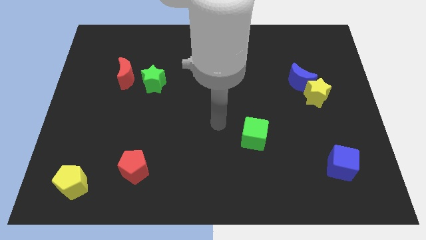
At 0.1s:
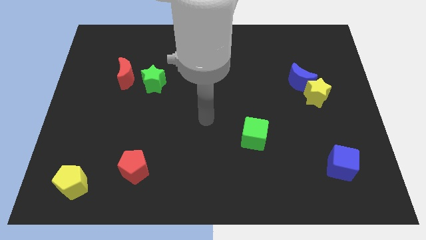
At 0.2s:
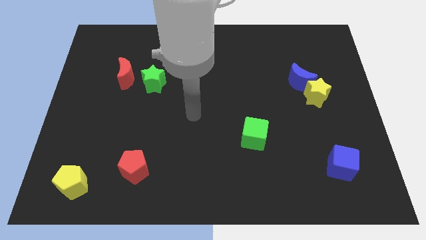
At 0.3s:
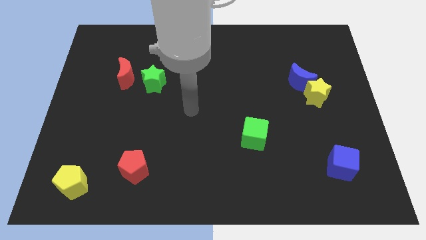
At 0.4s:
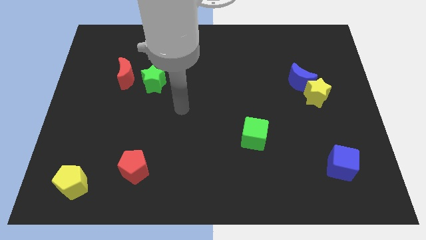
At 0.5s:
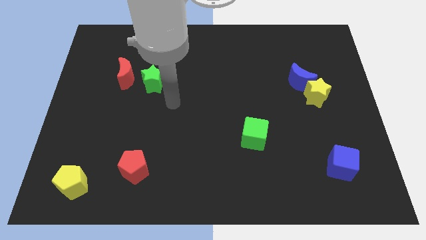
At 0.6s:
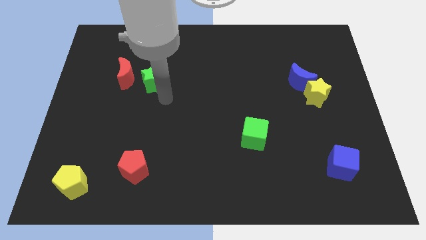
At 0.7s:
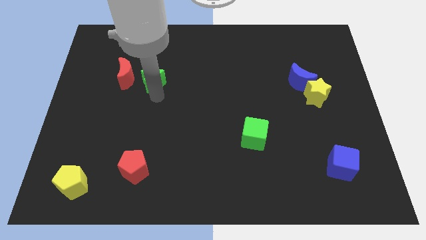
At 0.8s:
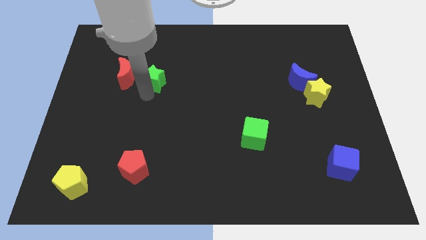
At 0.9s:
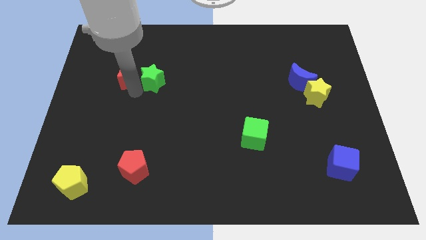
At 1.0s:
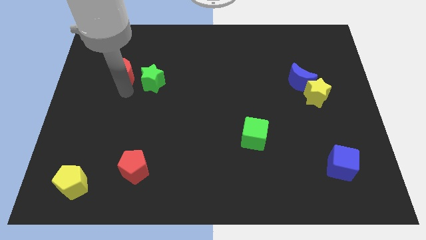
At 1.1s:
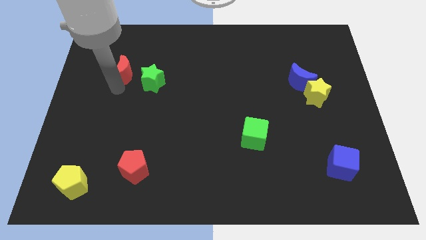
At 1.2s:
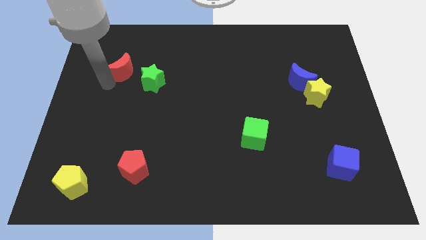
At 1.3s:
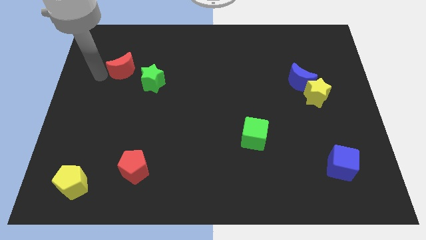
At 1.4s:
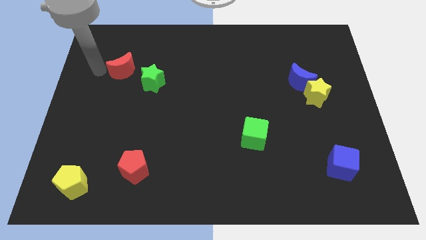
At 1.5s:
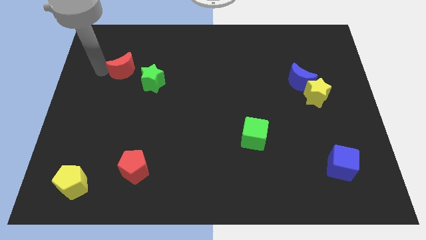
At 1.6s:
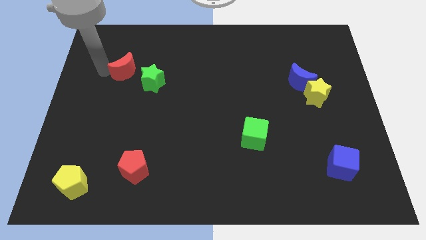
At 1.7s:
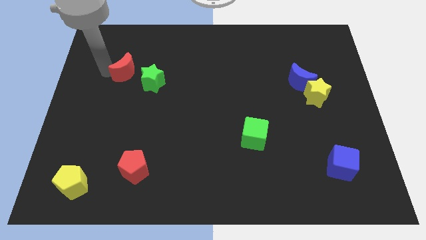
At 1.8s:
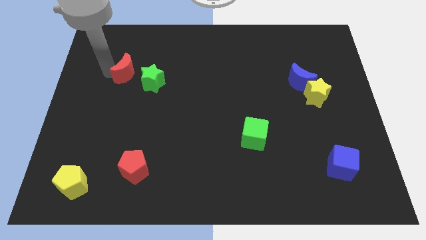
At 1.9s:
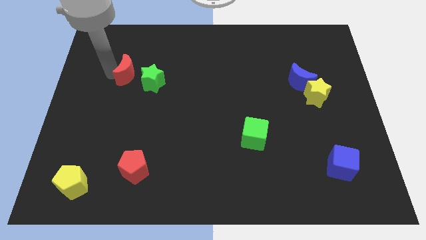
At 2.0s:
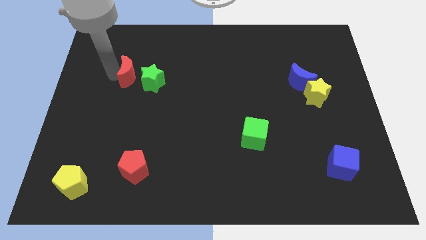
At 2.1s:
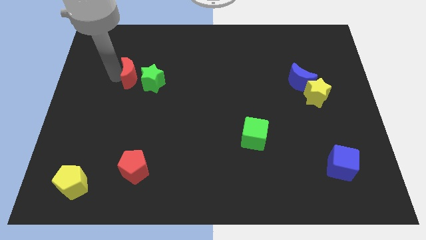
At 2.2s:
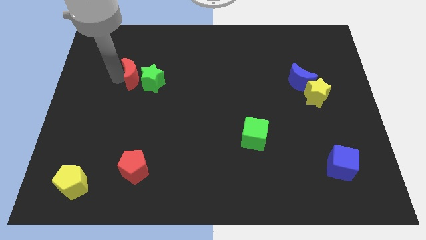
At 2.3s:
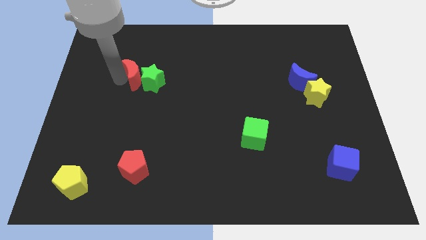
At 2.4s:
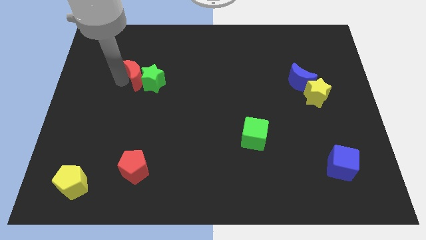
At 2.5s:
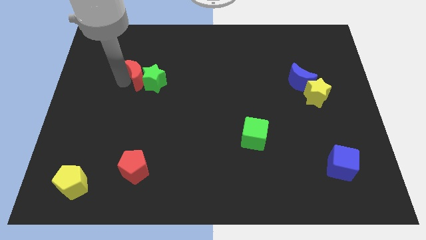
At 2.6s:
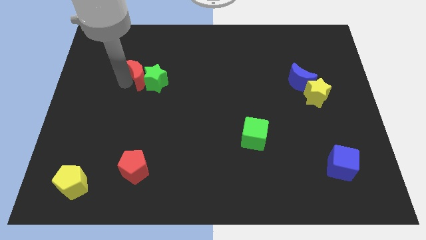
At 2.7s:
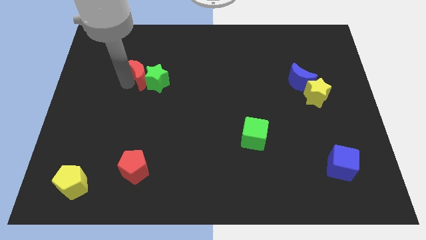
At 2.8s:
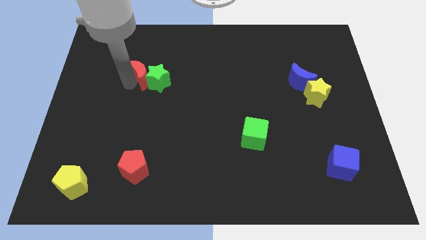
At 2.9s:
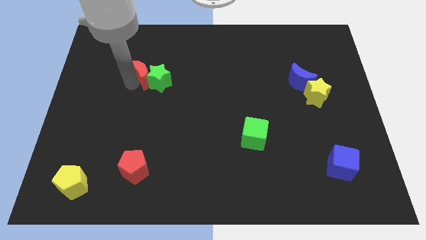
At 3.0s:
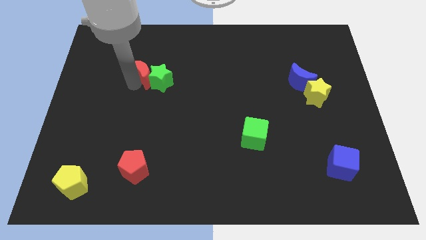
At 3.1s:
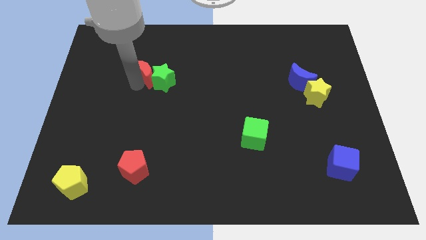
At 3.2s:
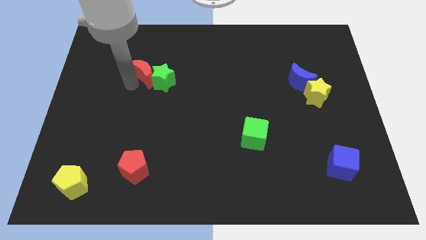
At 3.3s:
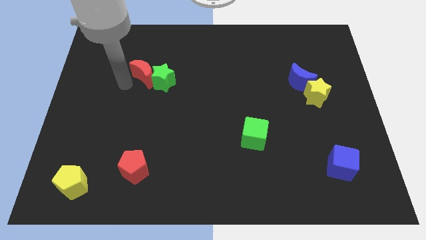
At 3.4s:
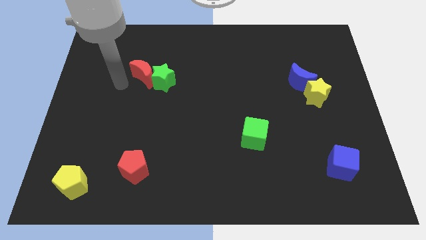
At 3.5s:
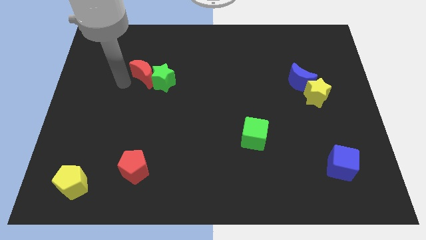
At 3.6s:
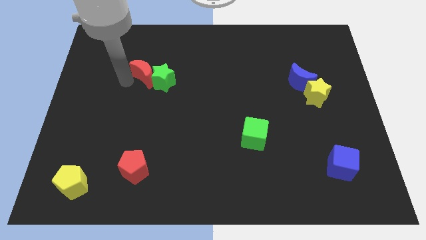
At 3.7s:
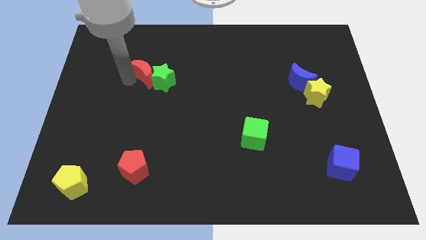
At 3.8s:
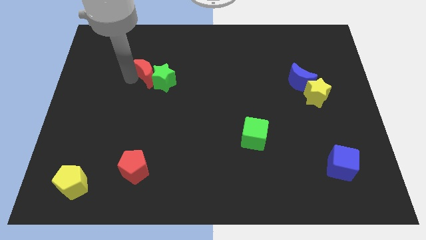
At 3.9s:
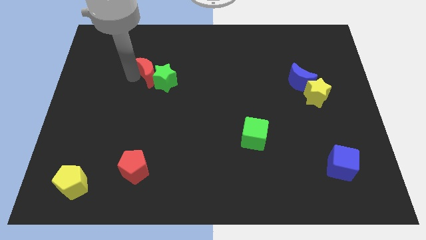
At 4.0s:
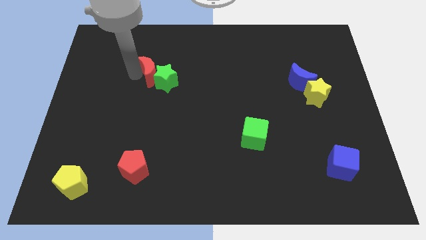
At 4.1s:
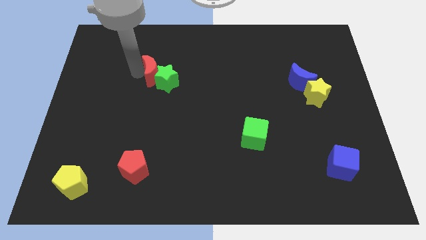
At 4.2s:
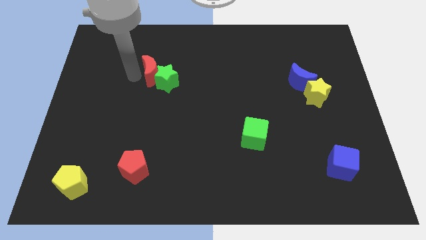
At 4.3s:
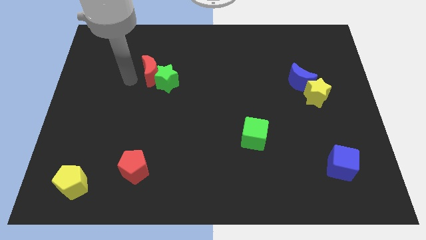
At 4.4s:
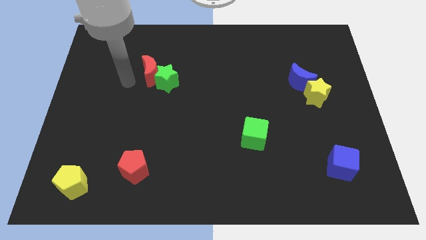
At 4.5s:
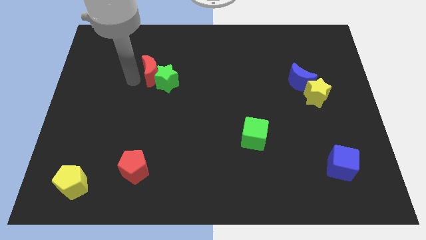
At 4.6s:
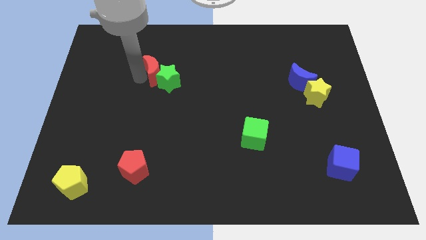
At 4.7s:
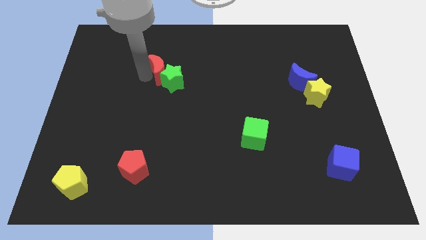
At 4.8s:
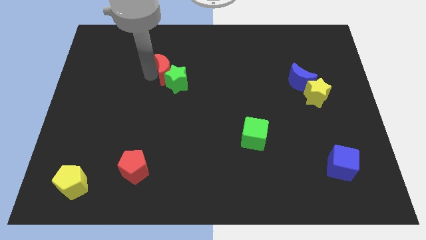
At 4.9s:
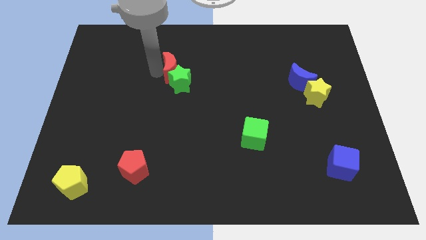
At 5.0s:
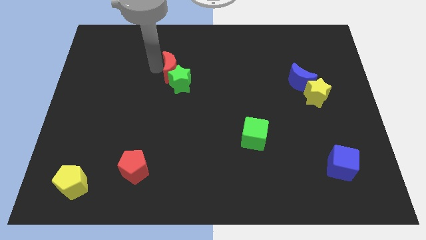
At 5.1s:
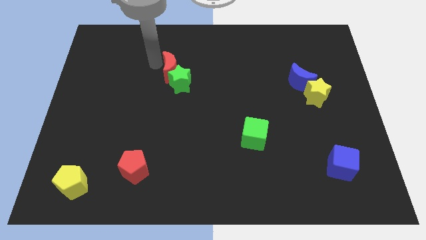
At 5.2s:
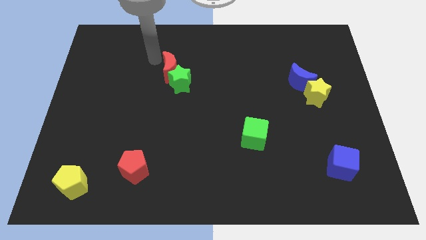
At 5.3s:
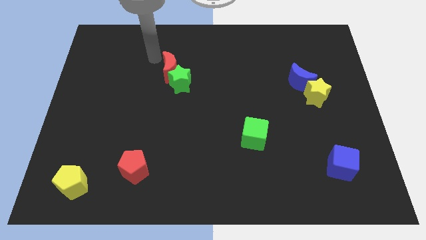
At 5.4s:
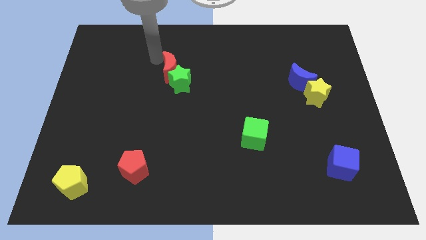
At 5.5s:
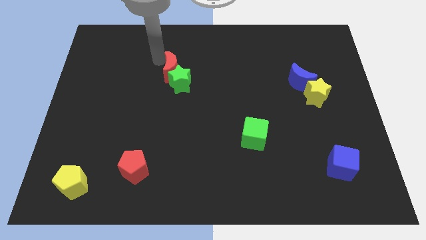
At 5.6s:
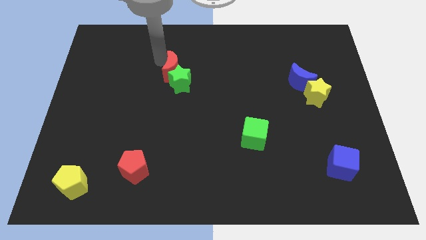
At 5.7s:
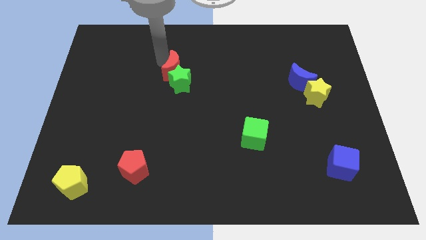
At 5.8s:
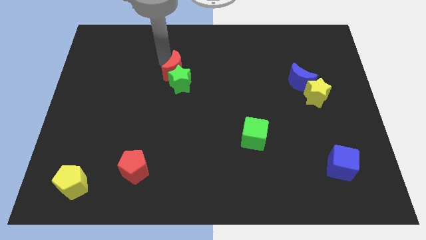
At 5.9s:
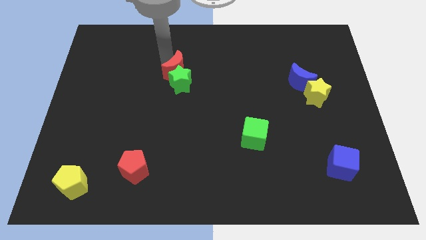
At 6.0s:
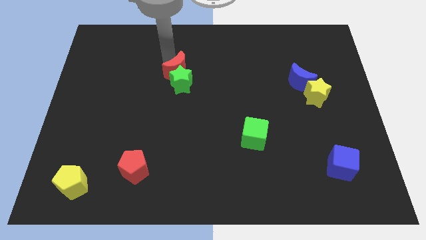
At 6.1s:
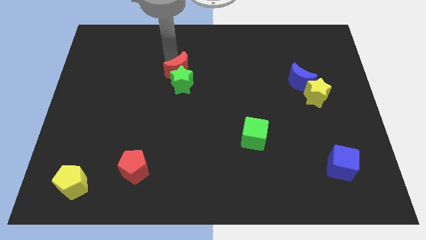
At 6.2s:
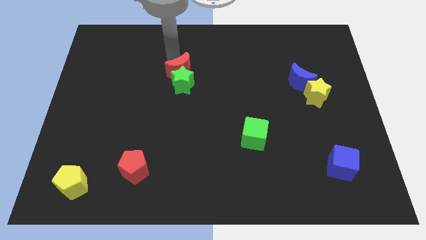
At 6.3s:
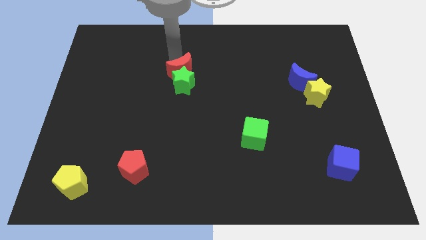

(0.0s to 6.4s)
move the red moon to the middle of the board
